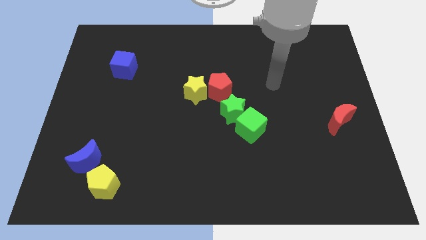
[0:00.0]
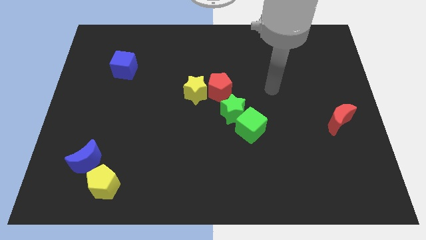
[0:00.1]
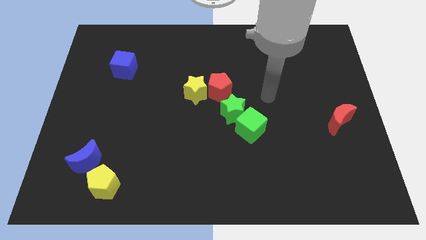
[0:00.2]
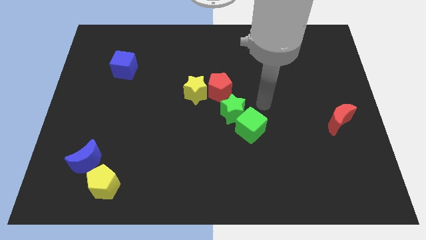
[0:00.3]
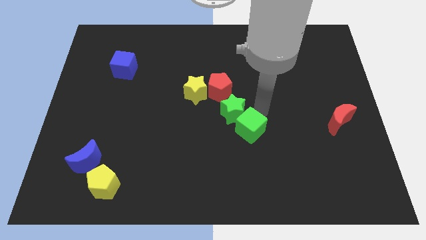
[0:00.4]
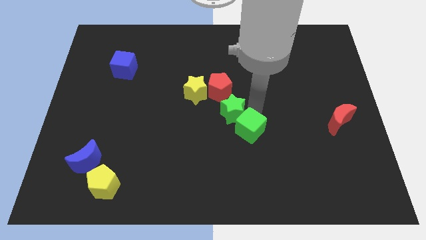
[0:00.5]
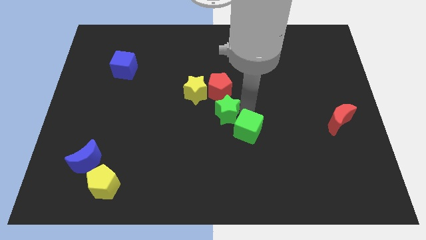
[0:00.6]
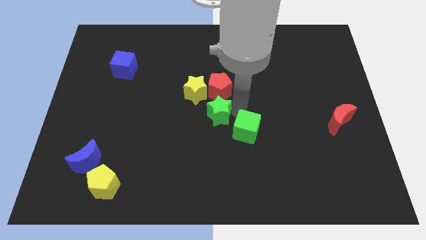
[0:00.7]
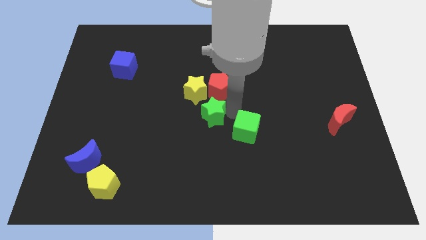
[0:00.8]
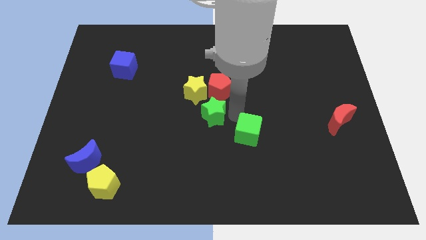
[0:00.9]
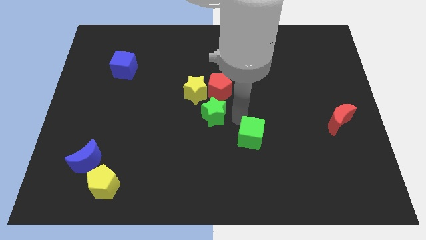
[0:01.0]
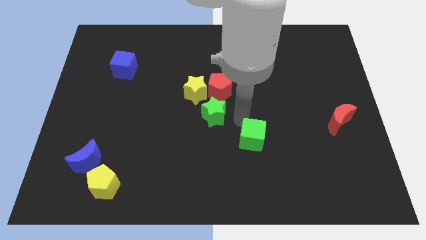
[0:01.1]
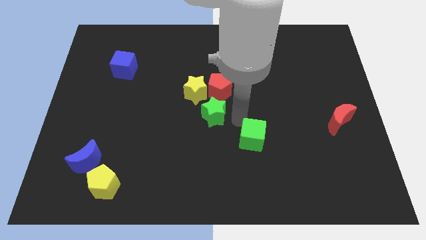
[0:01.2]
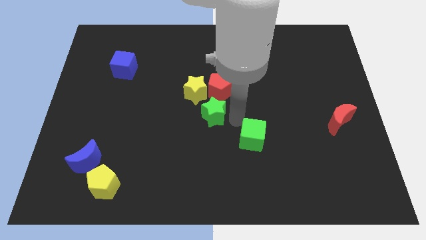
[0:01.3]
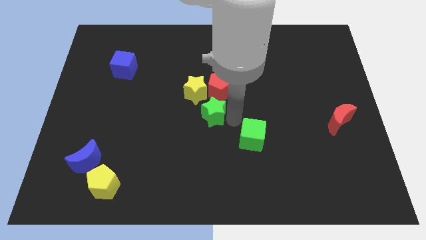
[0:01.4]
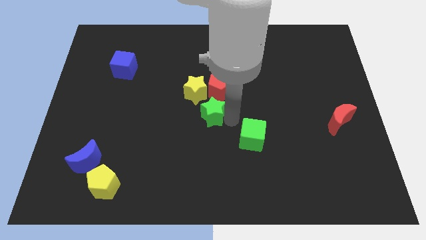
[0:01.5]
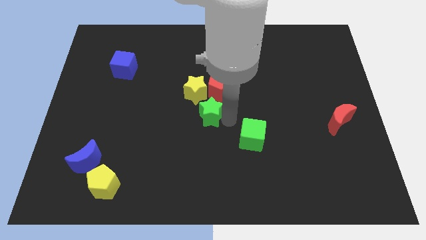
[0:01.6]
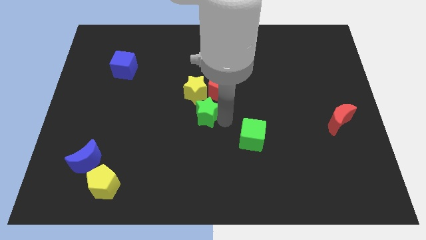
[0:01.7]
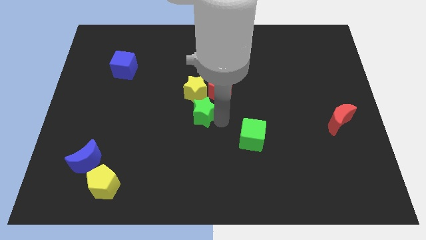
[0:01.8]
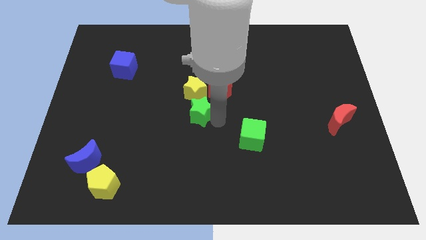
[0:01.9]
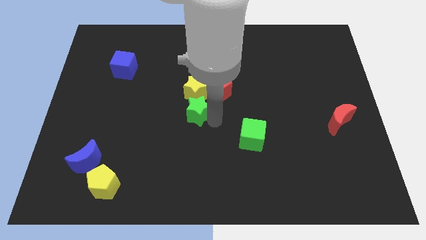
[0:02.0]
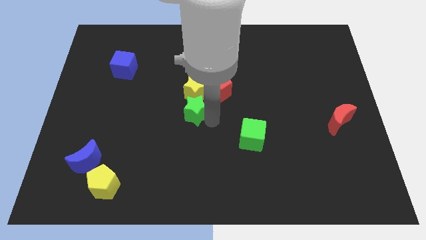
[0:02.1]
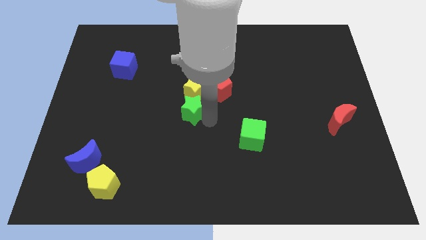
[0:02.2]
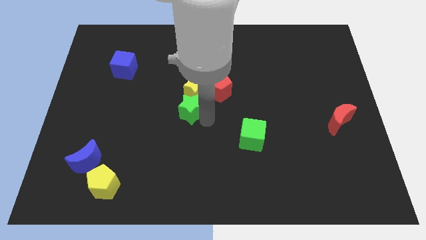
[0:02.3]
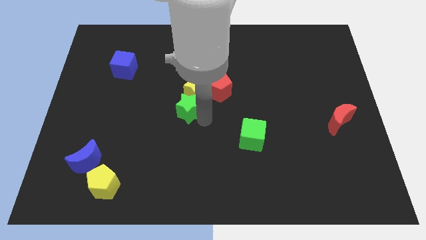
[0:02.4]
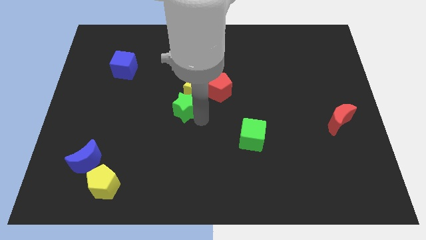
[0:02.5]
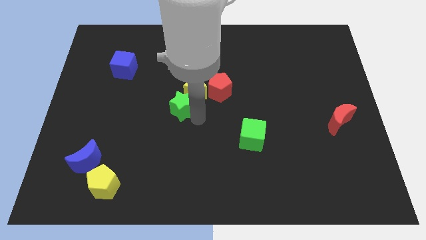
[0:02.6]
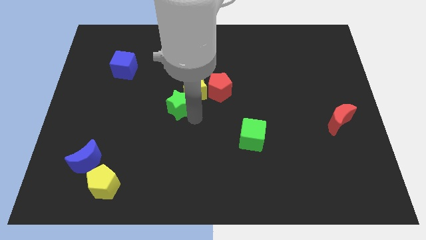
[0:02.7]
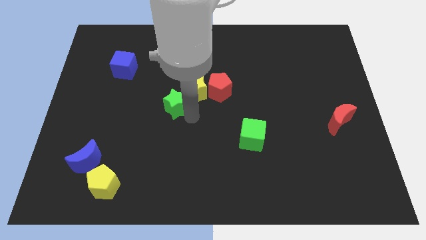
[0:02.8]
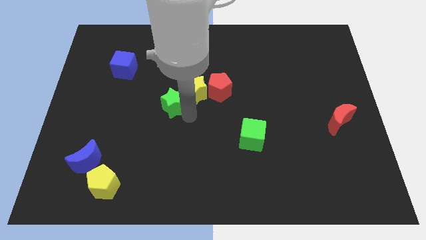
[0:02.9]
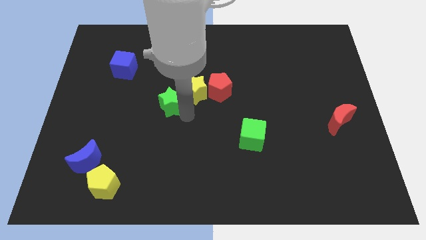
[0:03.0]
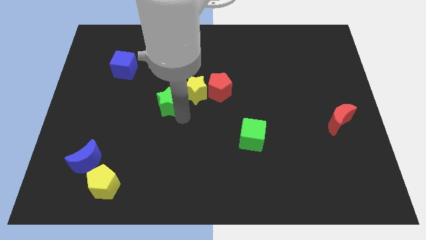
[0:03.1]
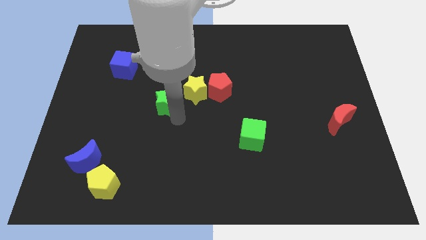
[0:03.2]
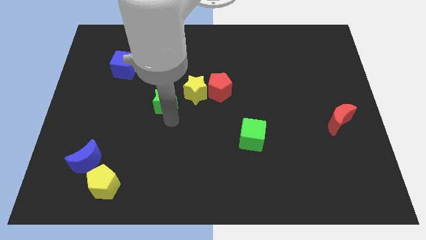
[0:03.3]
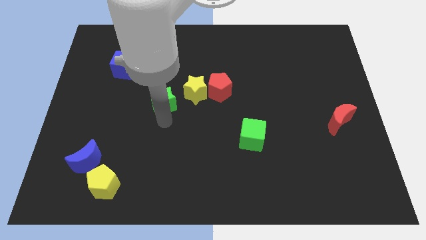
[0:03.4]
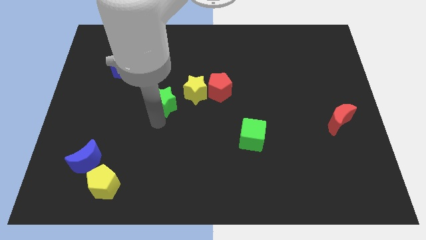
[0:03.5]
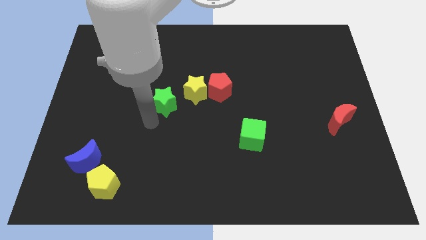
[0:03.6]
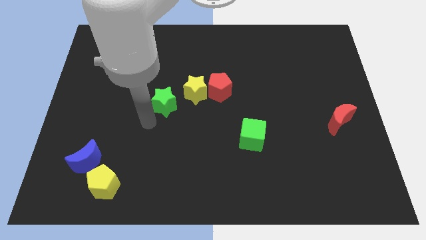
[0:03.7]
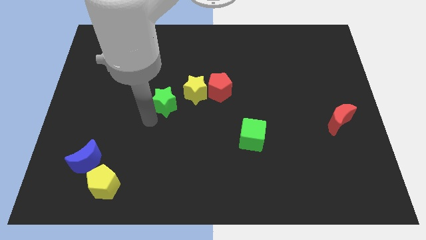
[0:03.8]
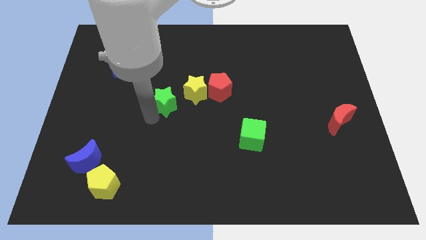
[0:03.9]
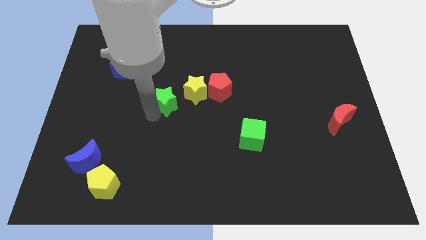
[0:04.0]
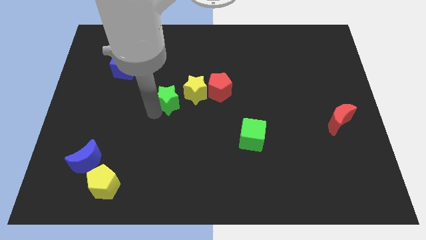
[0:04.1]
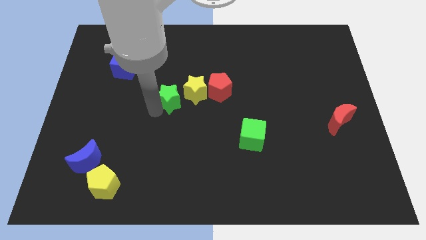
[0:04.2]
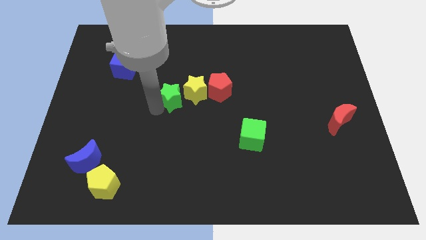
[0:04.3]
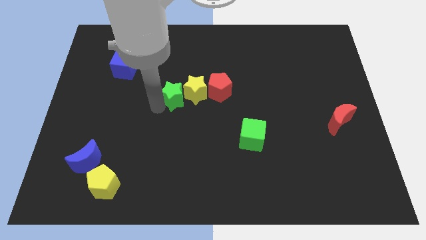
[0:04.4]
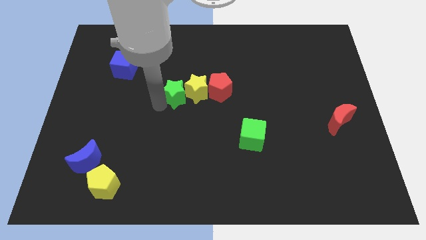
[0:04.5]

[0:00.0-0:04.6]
move the green star diagonally up and to the left of the yellow star

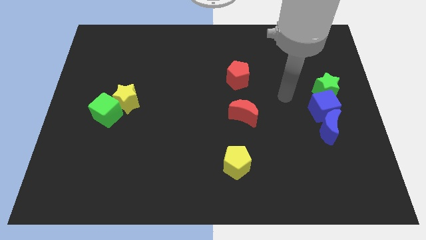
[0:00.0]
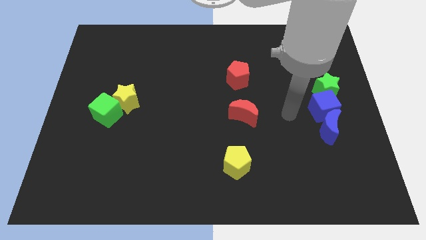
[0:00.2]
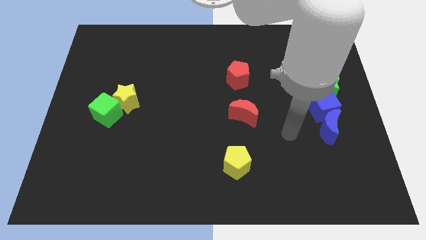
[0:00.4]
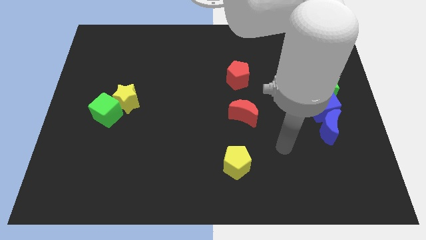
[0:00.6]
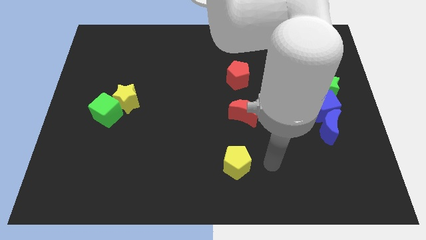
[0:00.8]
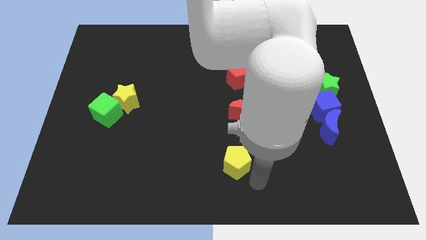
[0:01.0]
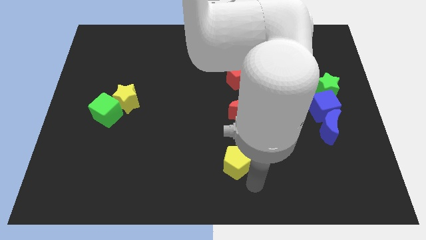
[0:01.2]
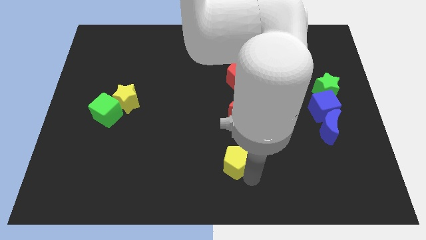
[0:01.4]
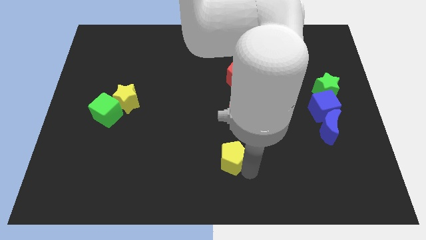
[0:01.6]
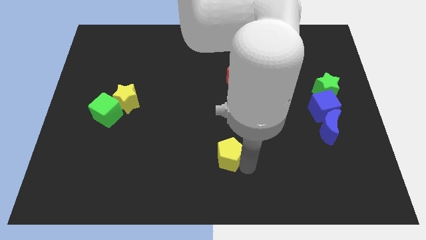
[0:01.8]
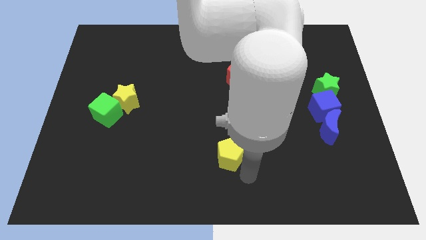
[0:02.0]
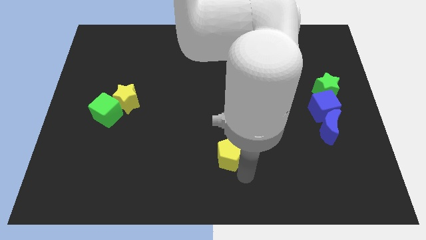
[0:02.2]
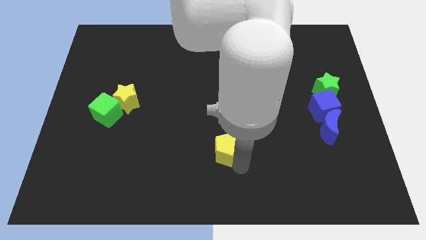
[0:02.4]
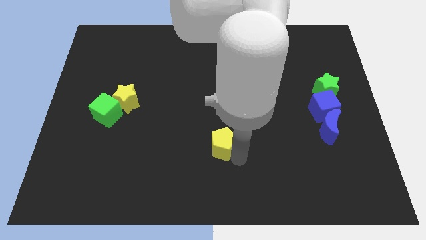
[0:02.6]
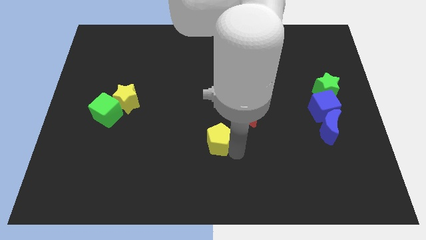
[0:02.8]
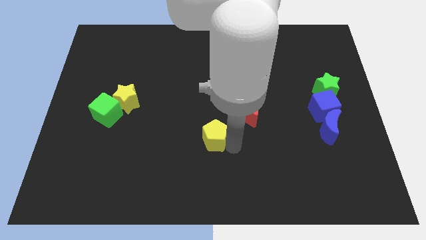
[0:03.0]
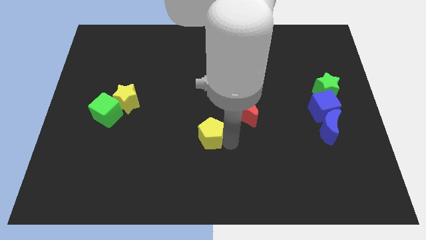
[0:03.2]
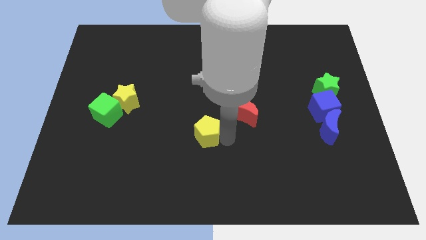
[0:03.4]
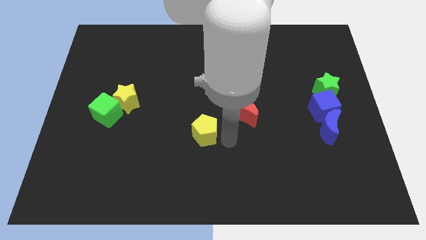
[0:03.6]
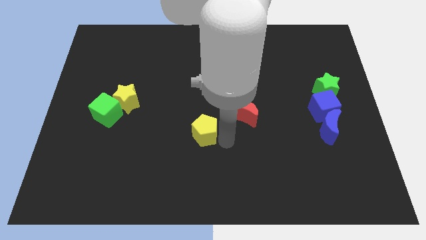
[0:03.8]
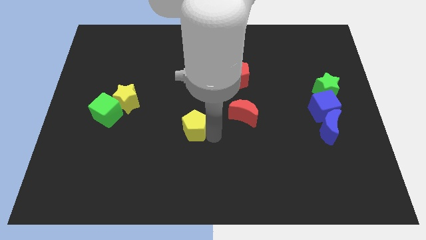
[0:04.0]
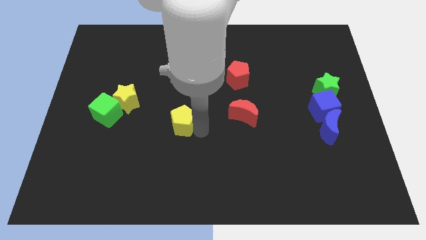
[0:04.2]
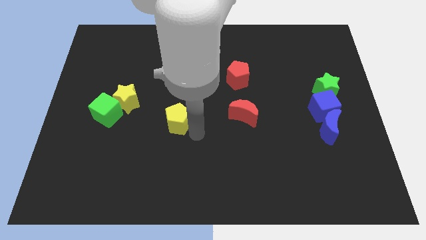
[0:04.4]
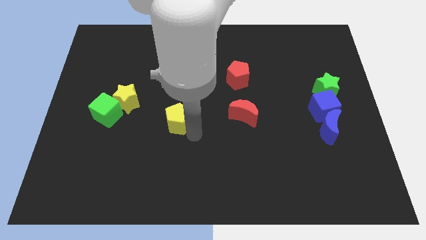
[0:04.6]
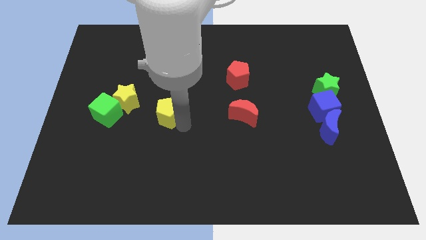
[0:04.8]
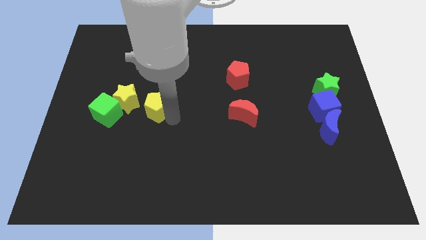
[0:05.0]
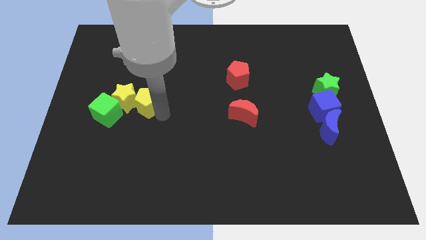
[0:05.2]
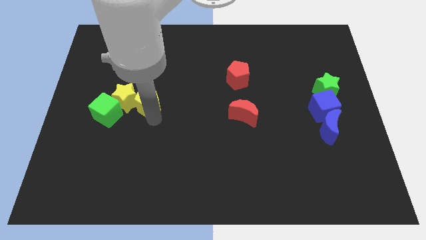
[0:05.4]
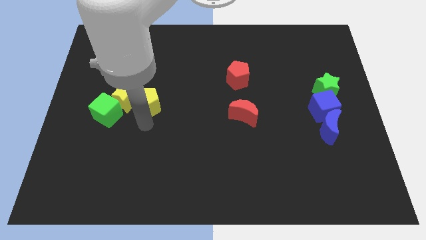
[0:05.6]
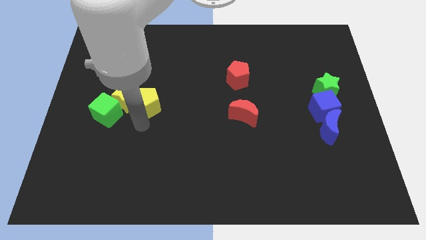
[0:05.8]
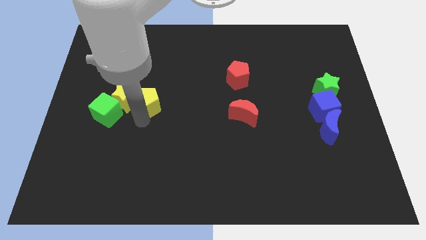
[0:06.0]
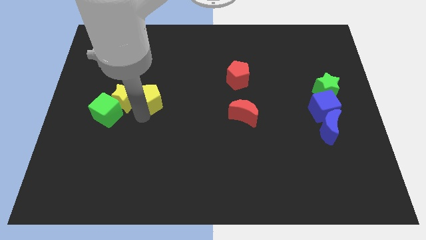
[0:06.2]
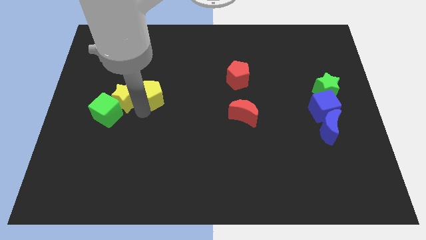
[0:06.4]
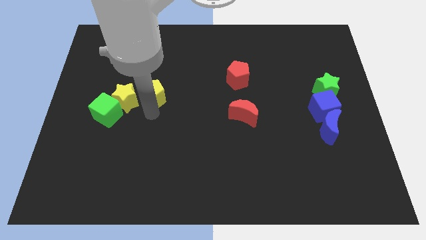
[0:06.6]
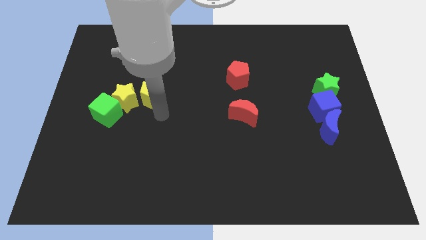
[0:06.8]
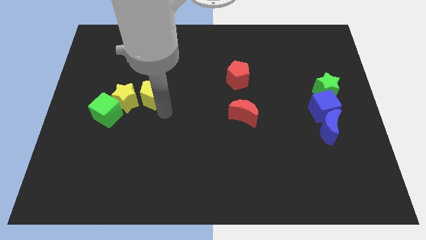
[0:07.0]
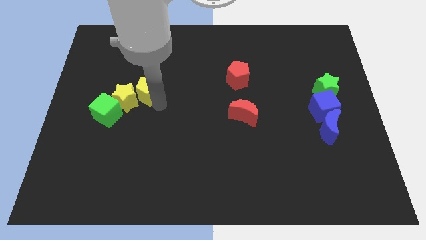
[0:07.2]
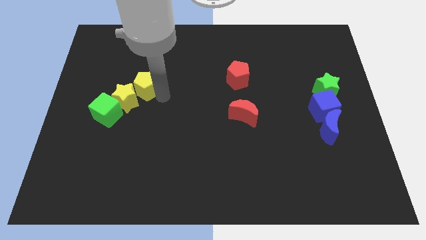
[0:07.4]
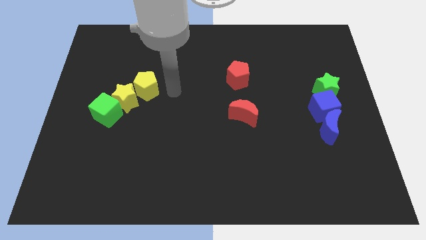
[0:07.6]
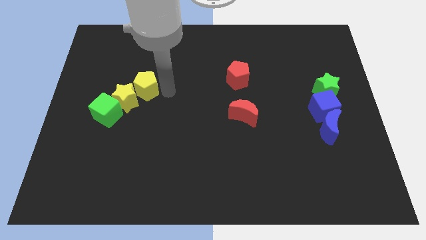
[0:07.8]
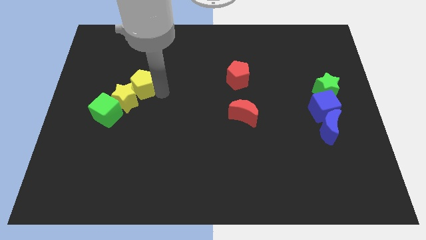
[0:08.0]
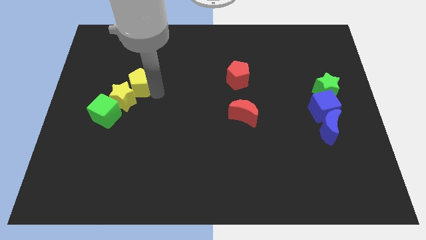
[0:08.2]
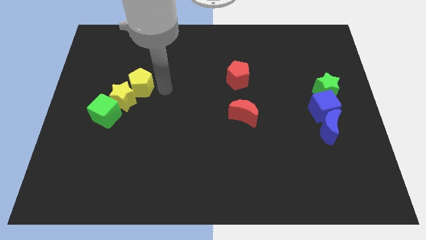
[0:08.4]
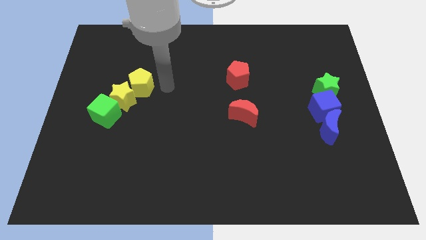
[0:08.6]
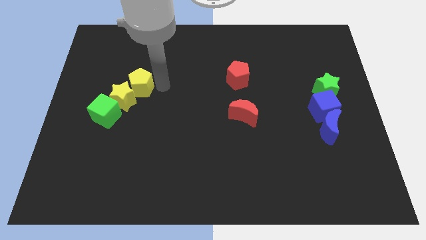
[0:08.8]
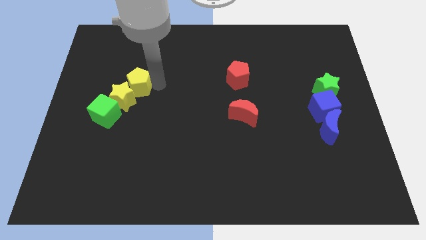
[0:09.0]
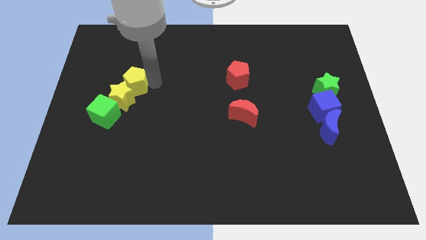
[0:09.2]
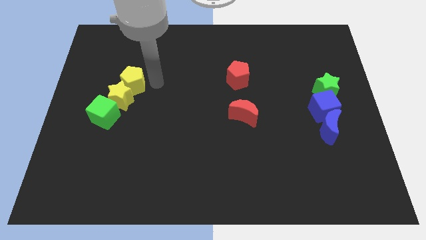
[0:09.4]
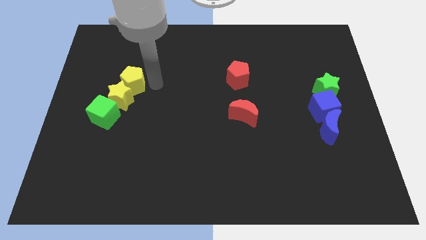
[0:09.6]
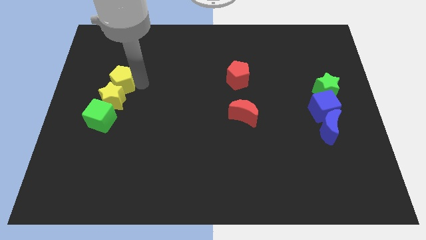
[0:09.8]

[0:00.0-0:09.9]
put the yellow pentagon to the top left of the yellow star
